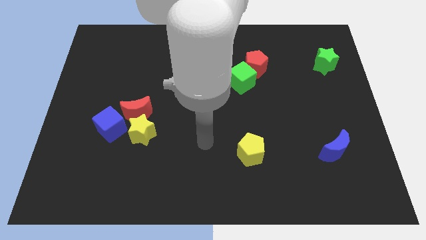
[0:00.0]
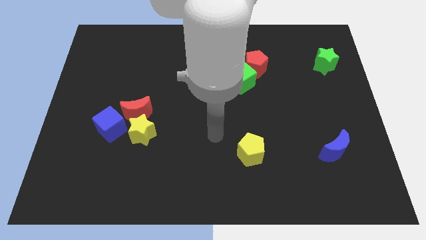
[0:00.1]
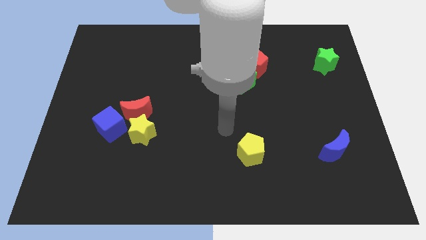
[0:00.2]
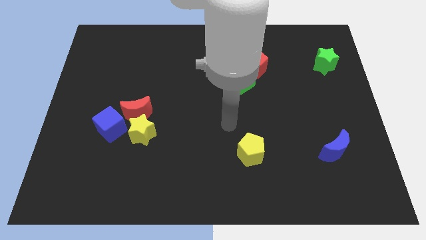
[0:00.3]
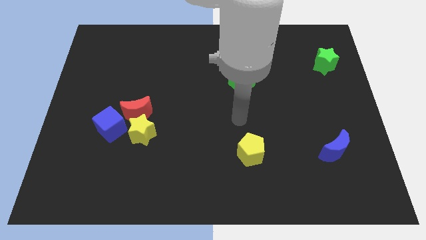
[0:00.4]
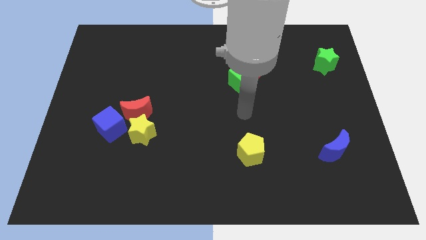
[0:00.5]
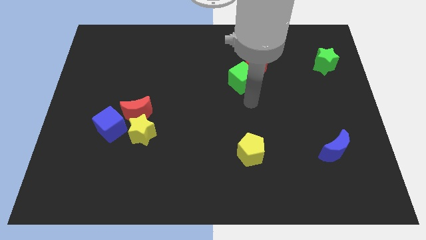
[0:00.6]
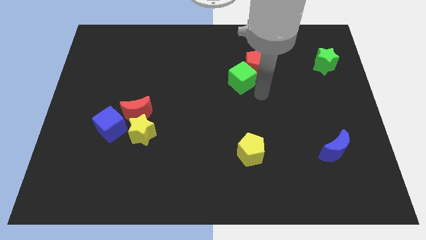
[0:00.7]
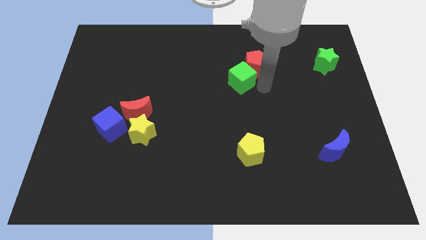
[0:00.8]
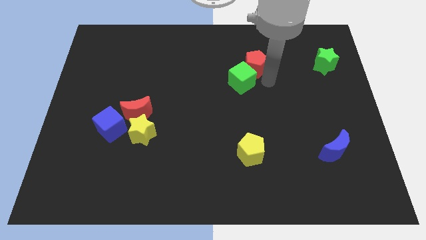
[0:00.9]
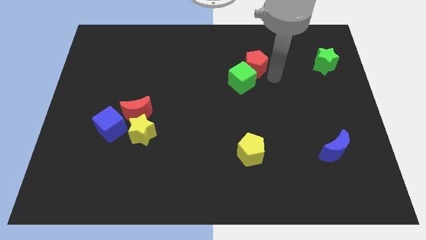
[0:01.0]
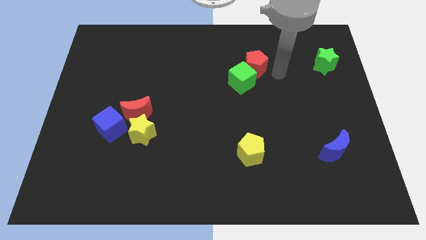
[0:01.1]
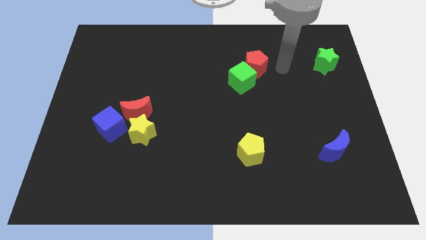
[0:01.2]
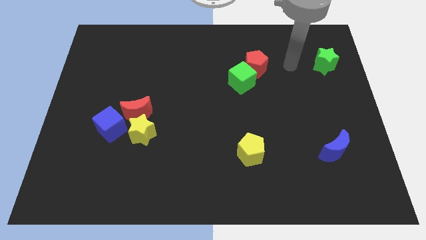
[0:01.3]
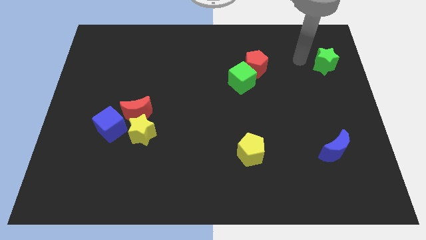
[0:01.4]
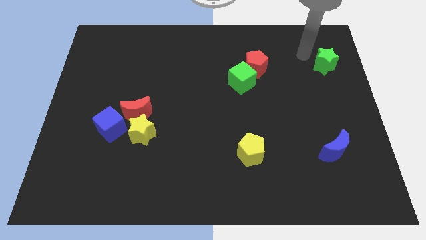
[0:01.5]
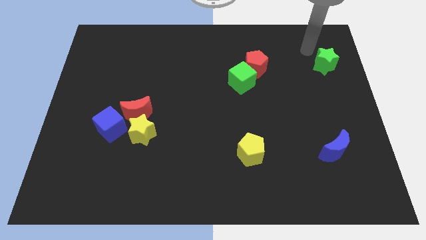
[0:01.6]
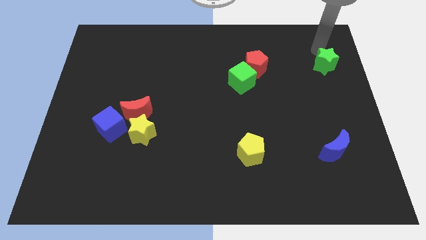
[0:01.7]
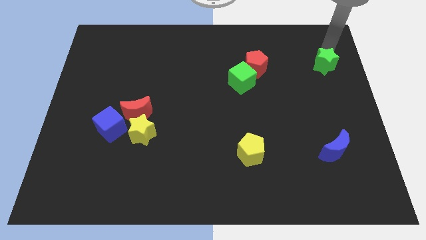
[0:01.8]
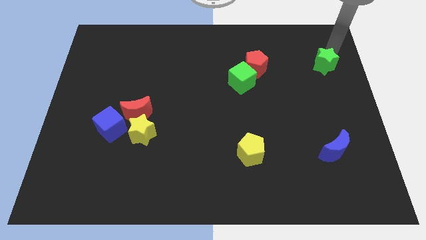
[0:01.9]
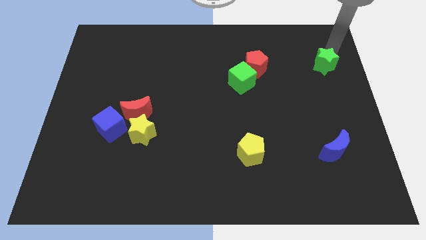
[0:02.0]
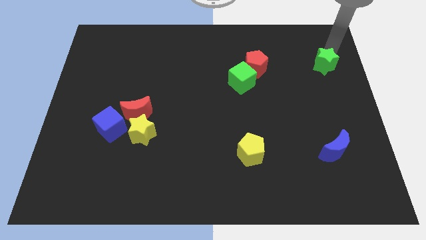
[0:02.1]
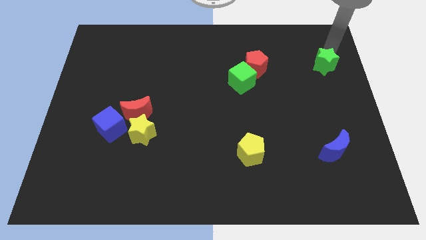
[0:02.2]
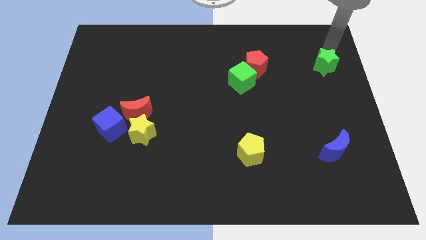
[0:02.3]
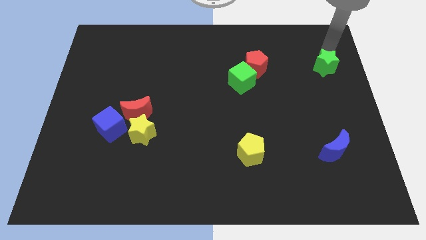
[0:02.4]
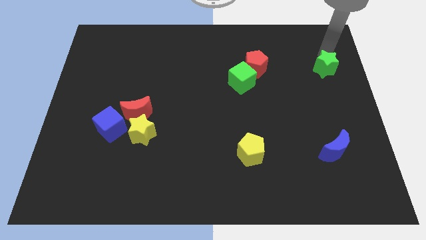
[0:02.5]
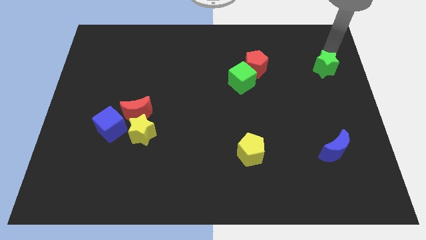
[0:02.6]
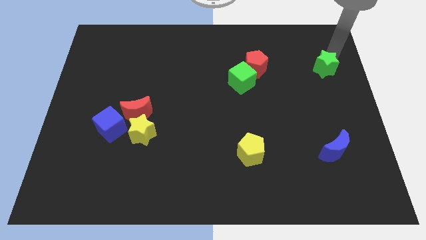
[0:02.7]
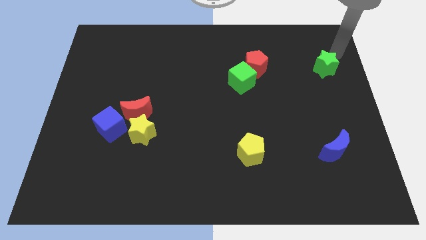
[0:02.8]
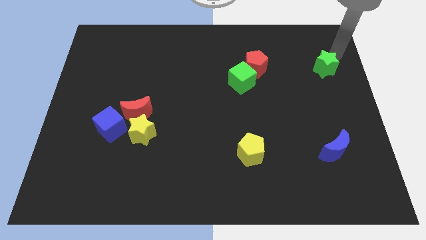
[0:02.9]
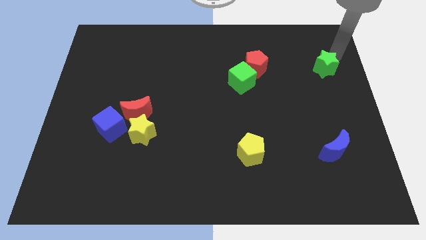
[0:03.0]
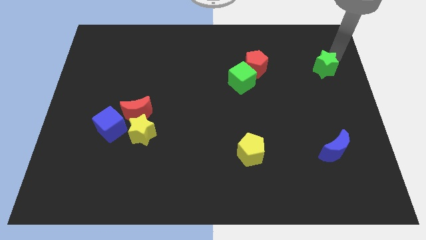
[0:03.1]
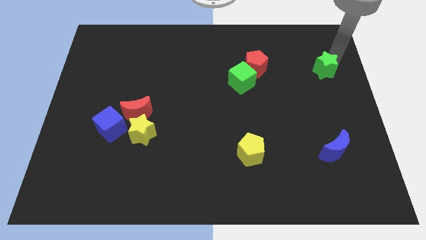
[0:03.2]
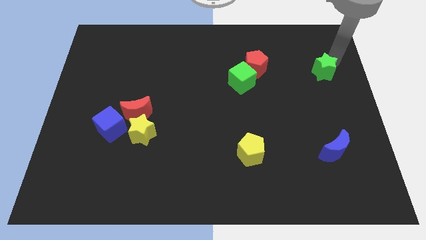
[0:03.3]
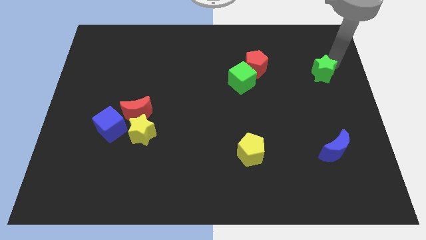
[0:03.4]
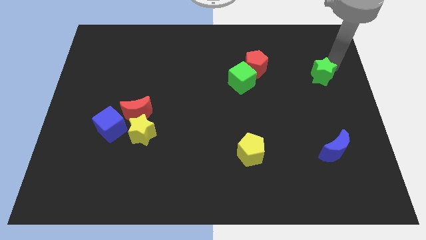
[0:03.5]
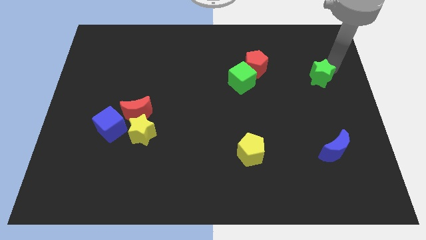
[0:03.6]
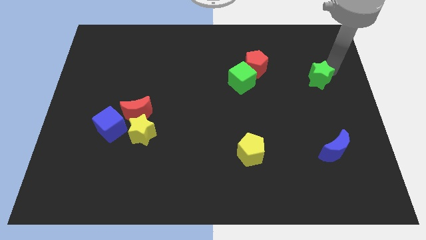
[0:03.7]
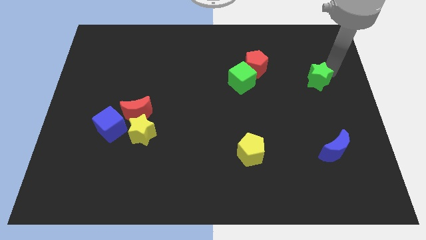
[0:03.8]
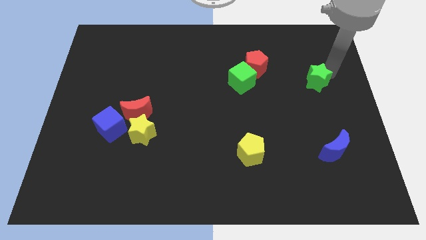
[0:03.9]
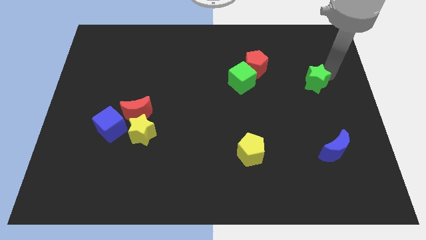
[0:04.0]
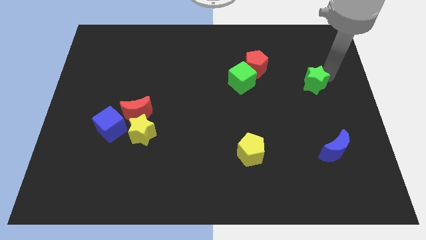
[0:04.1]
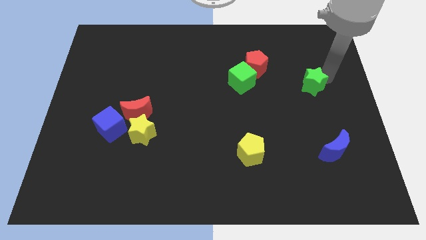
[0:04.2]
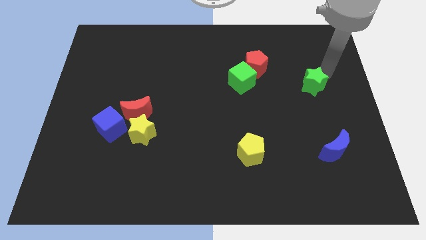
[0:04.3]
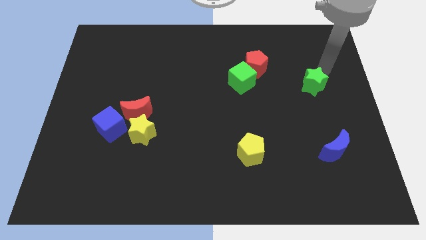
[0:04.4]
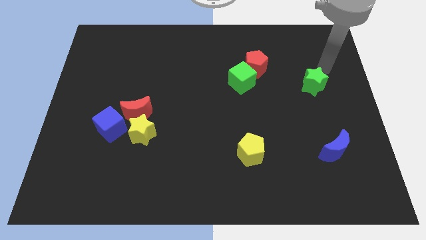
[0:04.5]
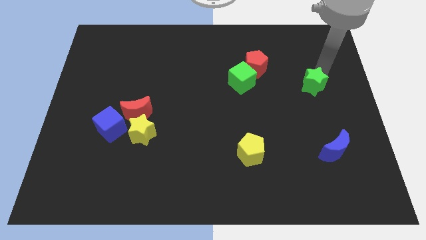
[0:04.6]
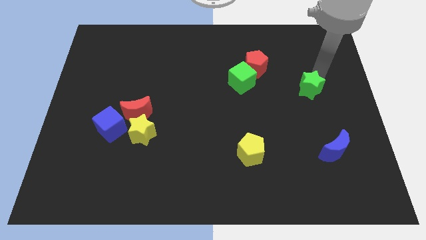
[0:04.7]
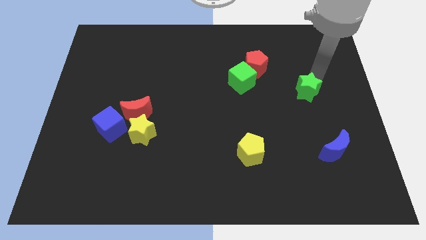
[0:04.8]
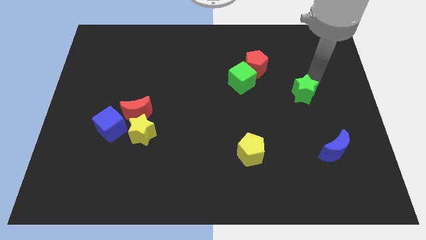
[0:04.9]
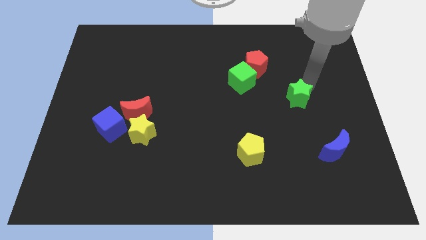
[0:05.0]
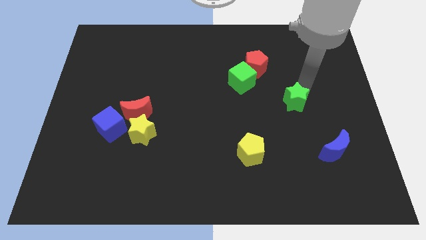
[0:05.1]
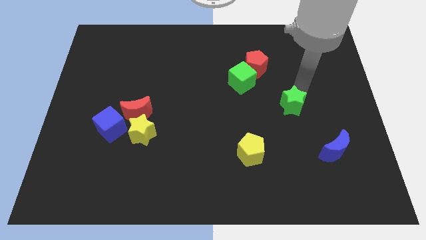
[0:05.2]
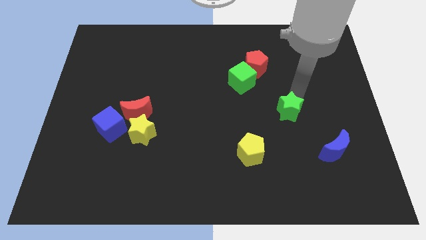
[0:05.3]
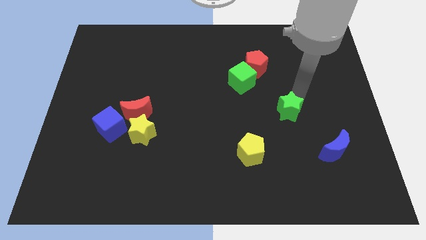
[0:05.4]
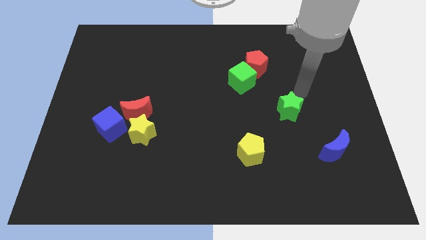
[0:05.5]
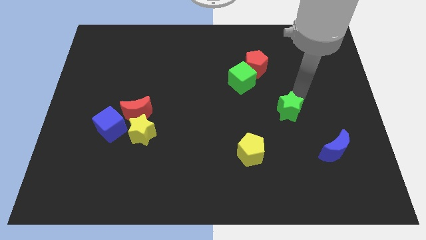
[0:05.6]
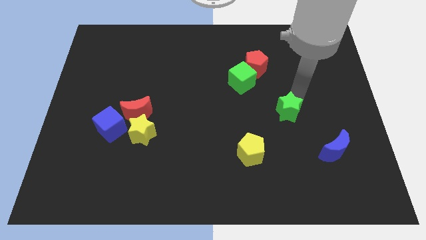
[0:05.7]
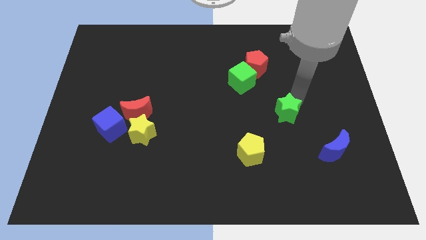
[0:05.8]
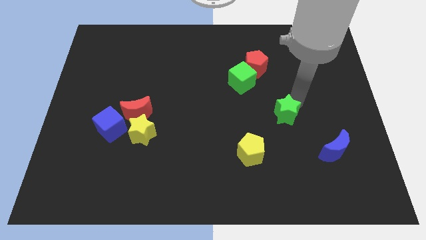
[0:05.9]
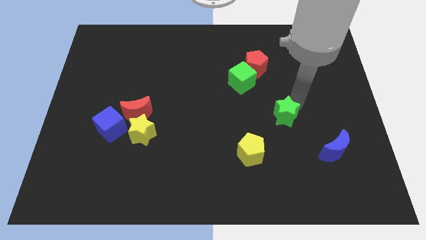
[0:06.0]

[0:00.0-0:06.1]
move the green star diagonally down and left

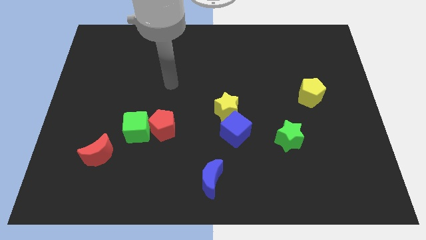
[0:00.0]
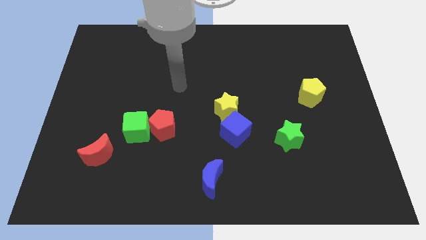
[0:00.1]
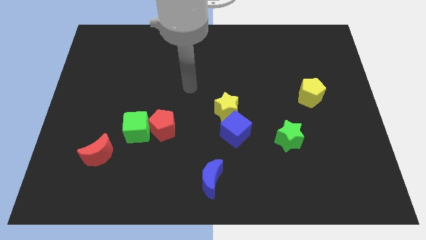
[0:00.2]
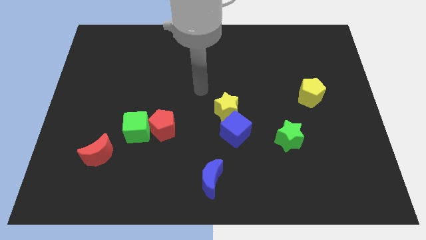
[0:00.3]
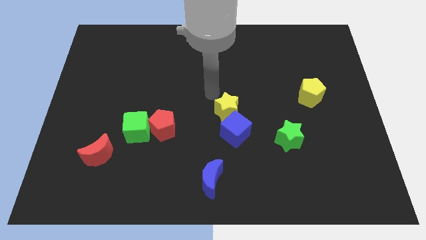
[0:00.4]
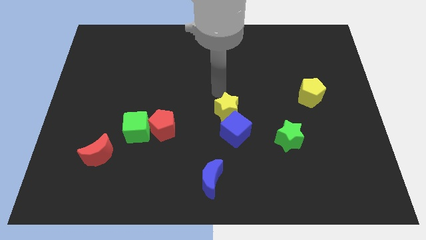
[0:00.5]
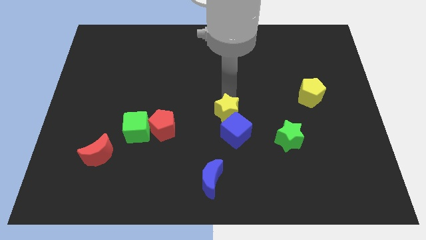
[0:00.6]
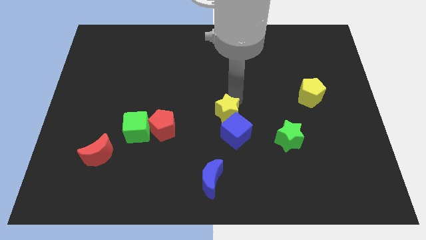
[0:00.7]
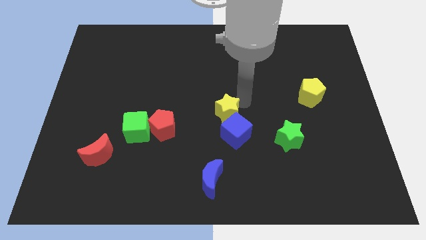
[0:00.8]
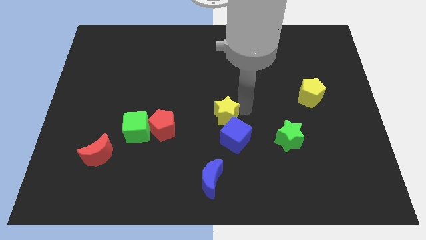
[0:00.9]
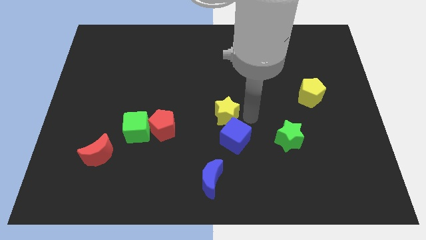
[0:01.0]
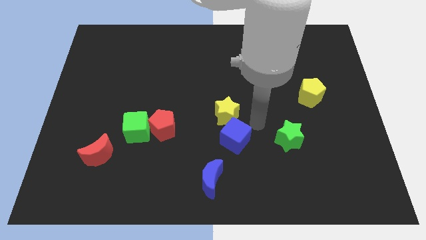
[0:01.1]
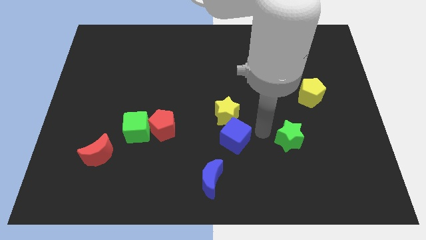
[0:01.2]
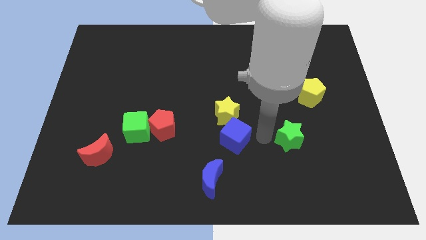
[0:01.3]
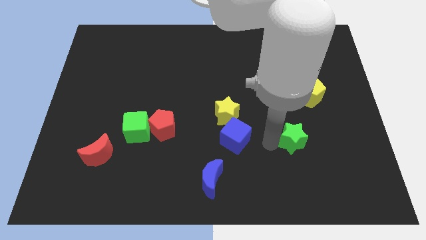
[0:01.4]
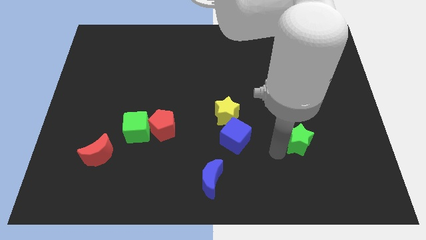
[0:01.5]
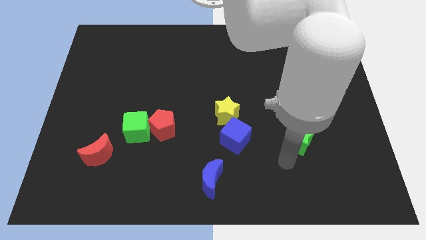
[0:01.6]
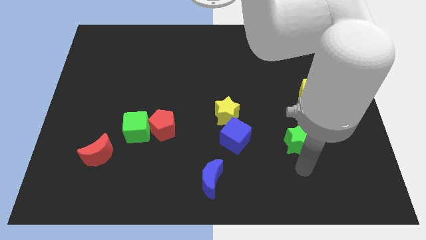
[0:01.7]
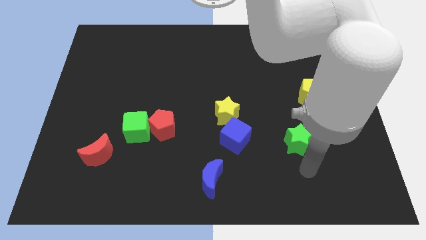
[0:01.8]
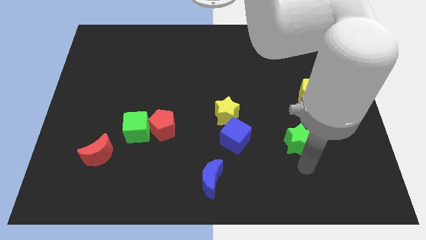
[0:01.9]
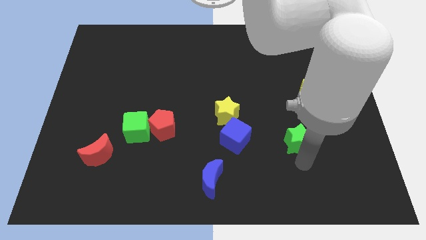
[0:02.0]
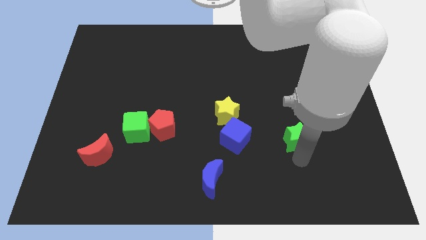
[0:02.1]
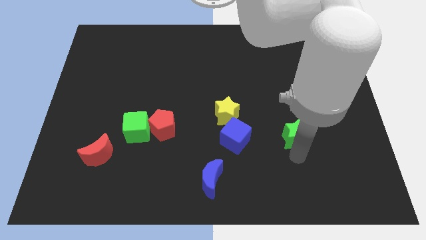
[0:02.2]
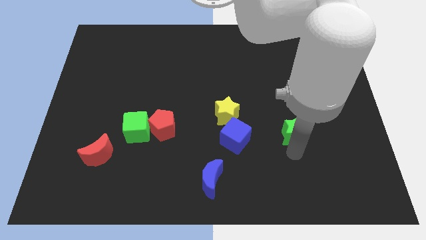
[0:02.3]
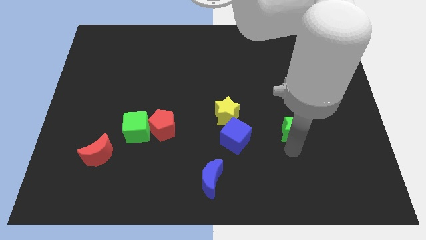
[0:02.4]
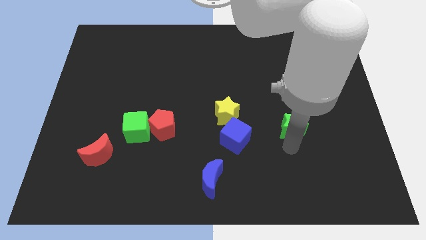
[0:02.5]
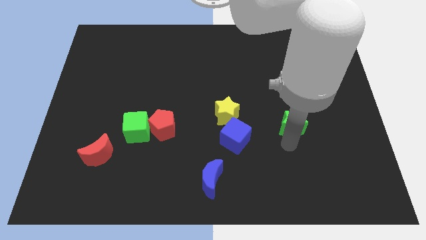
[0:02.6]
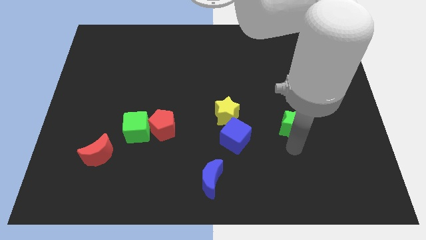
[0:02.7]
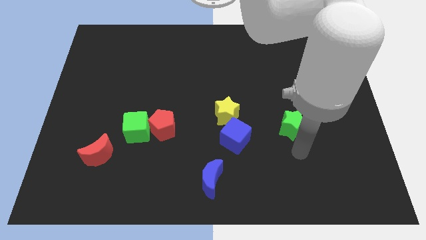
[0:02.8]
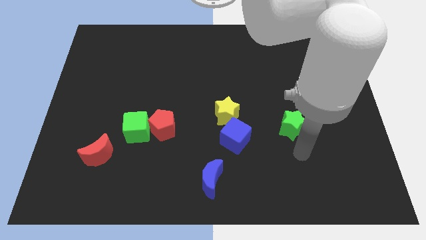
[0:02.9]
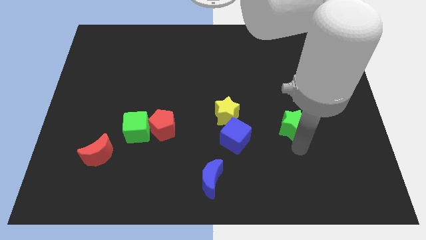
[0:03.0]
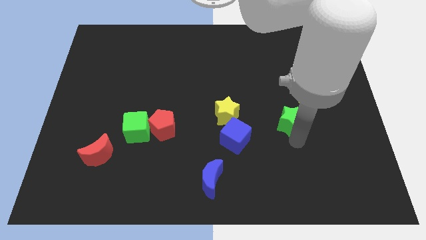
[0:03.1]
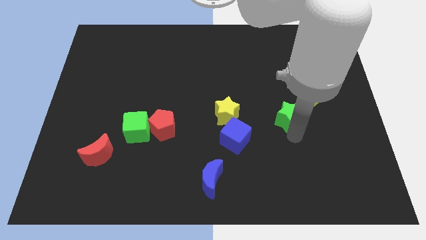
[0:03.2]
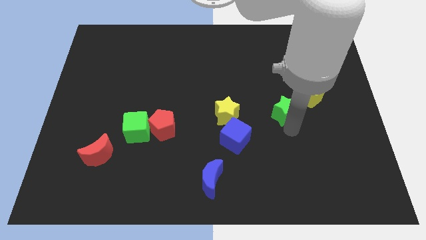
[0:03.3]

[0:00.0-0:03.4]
slightly push the green star upwards
